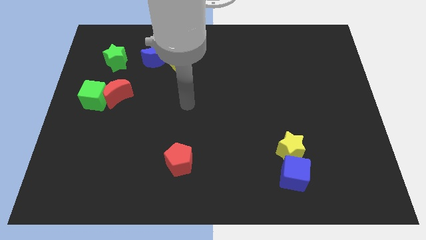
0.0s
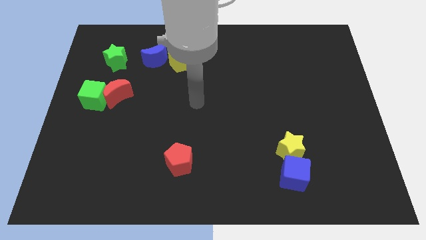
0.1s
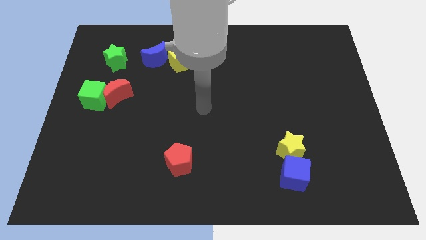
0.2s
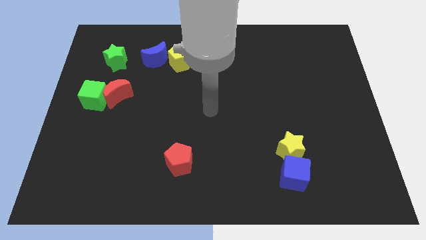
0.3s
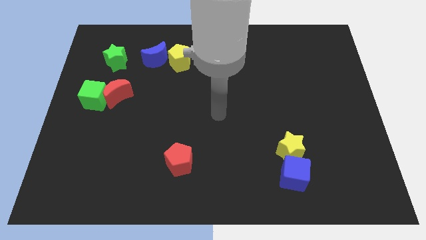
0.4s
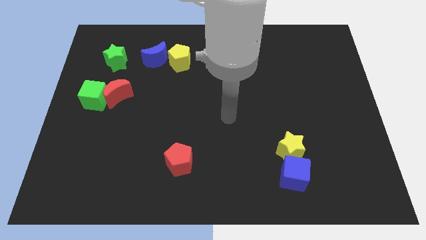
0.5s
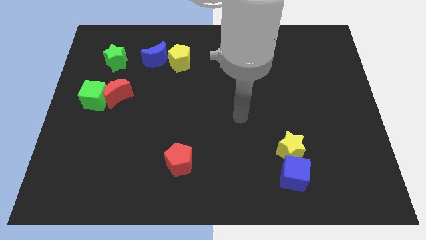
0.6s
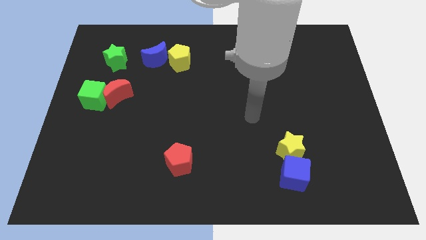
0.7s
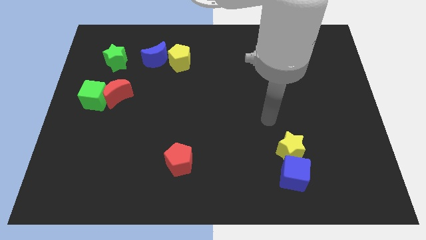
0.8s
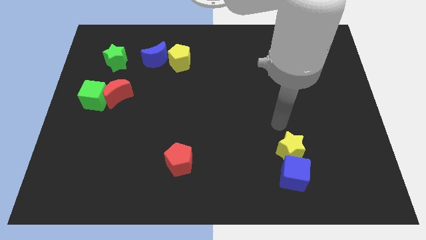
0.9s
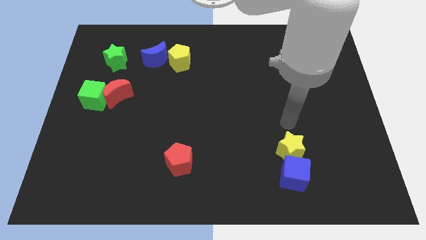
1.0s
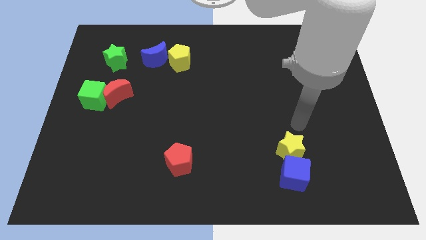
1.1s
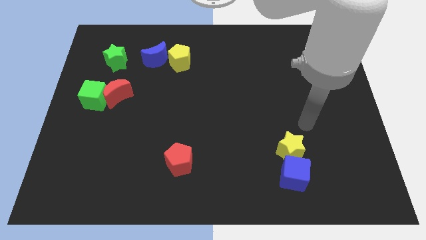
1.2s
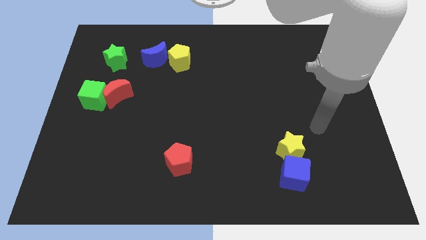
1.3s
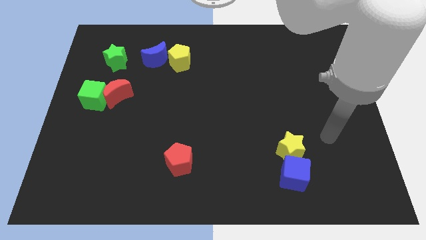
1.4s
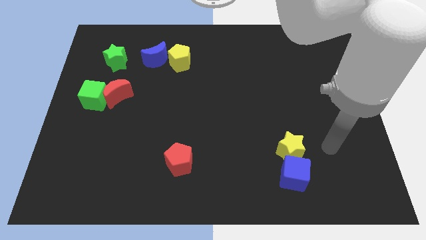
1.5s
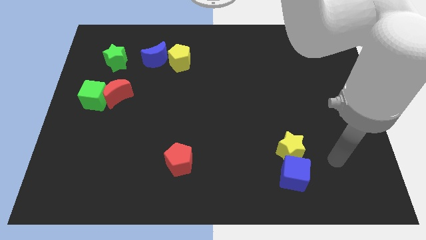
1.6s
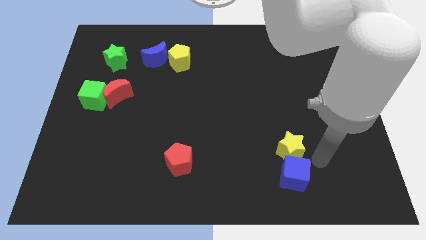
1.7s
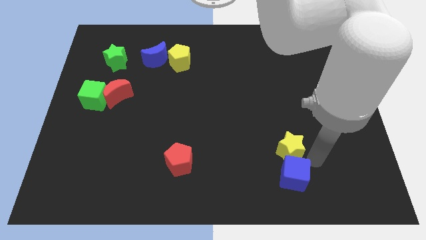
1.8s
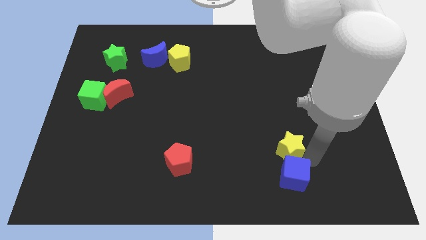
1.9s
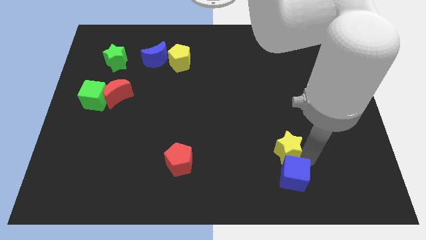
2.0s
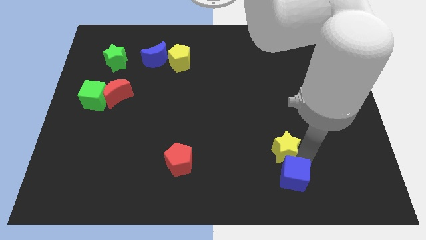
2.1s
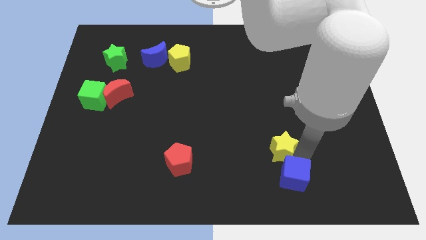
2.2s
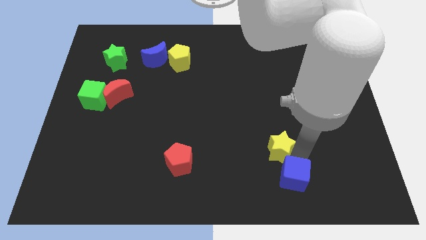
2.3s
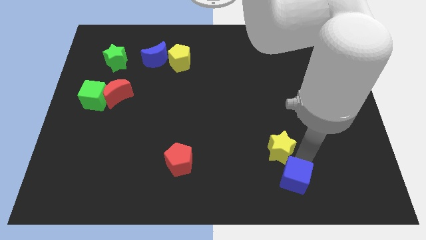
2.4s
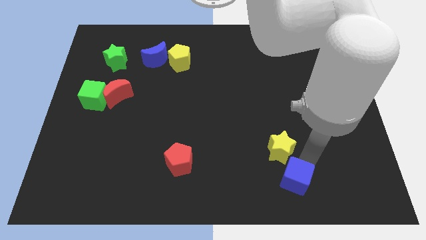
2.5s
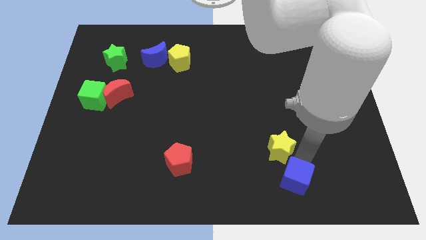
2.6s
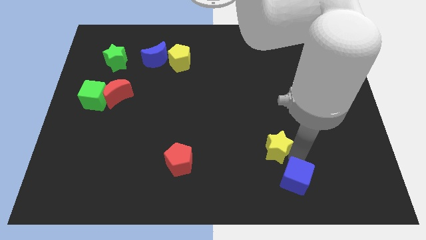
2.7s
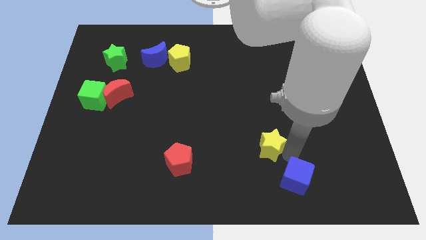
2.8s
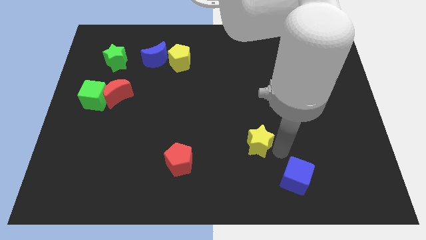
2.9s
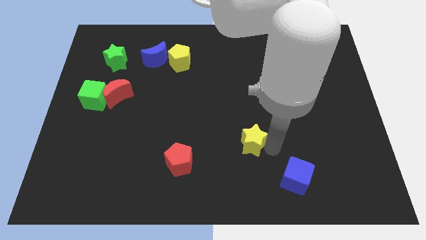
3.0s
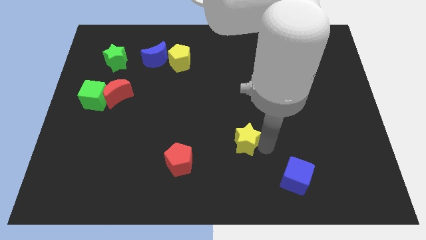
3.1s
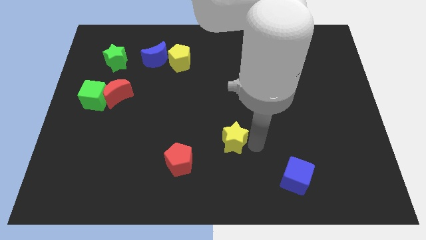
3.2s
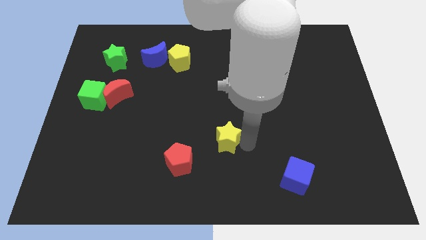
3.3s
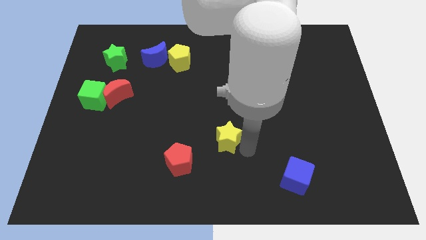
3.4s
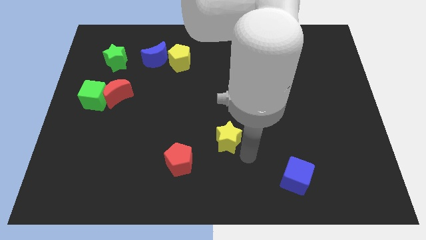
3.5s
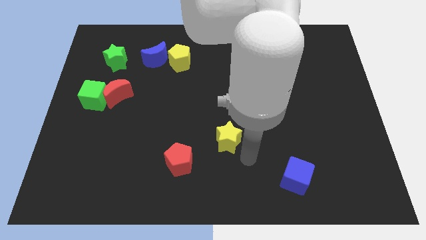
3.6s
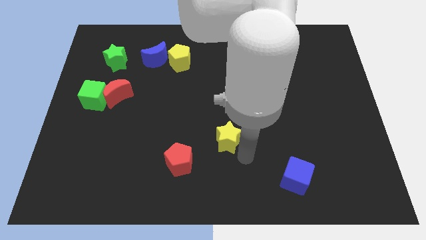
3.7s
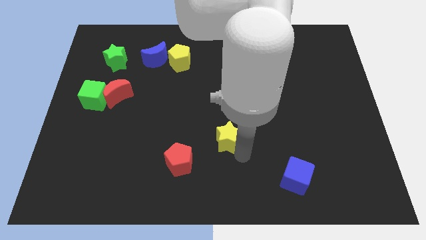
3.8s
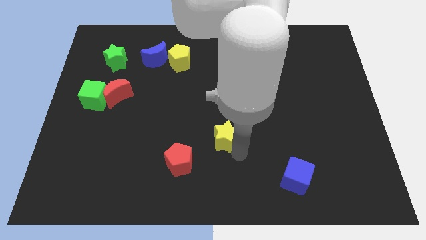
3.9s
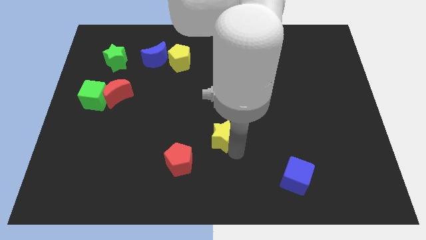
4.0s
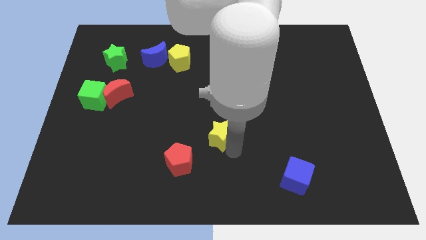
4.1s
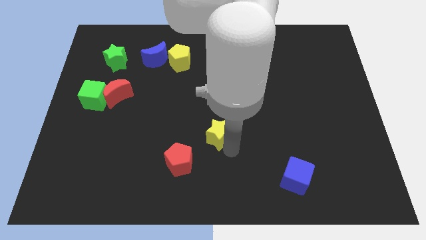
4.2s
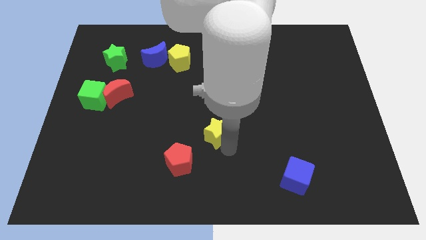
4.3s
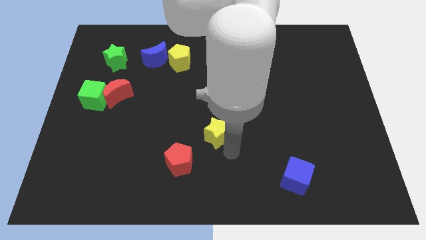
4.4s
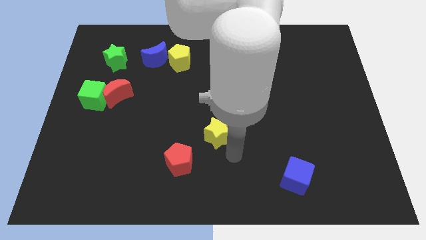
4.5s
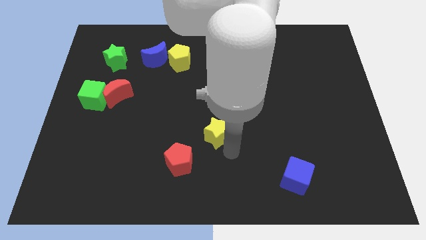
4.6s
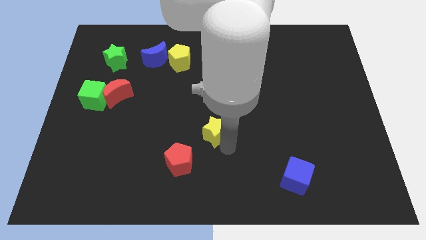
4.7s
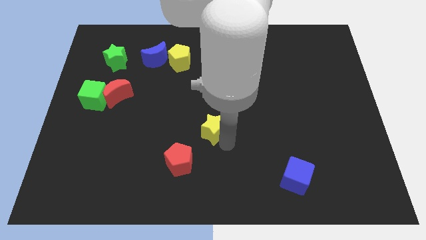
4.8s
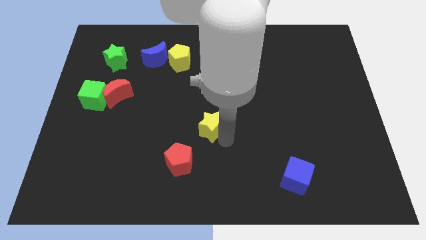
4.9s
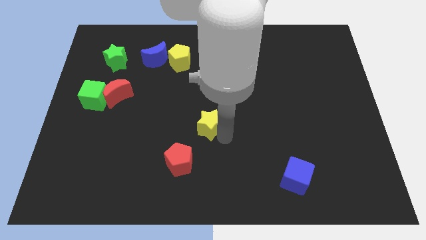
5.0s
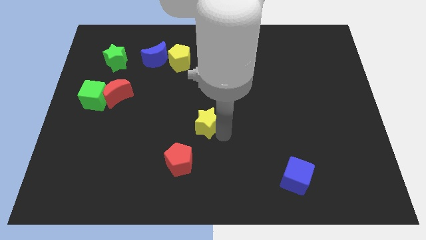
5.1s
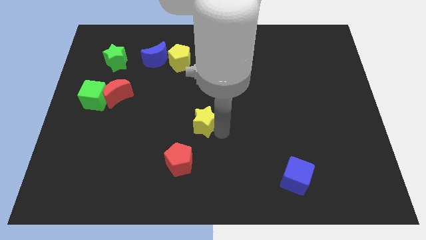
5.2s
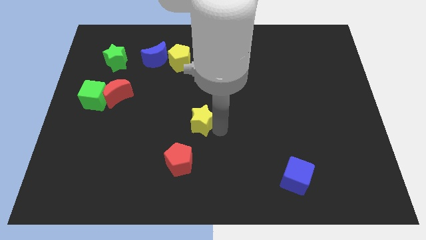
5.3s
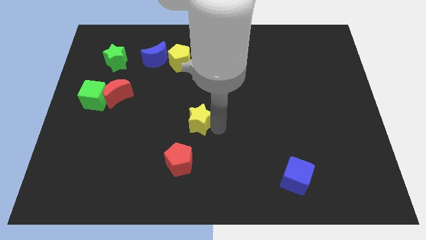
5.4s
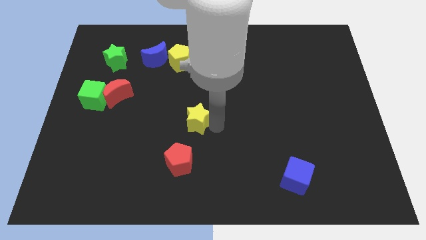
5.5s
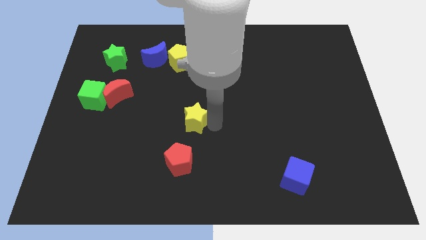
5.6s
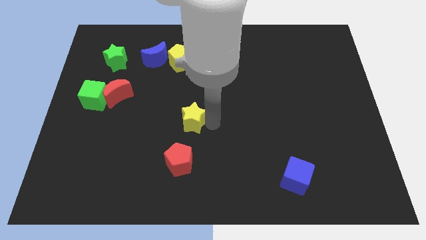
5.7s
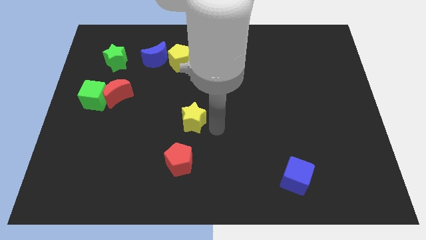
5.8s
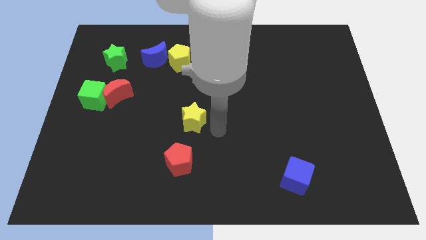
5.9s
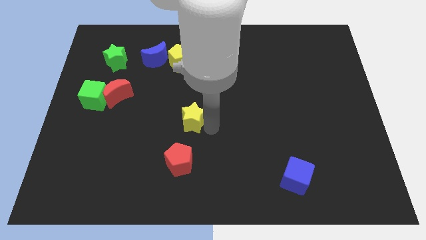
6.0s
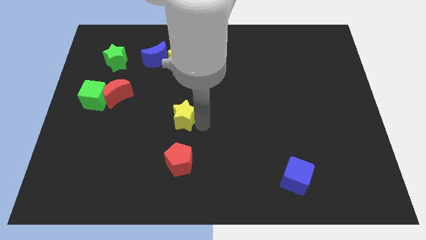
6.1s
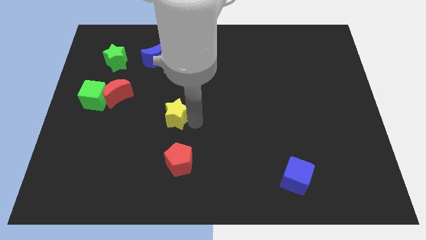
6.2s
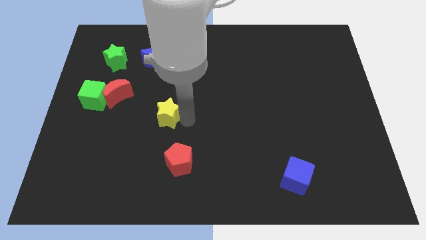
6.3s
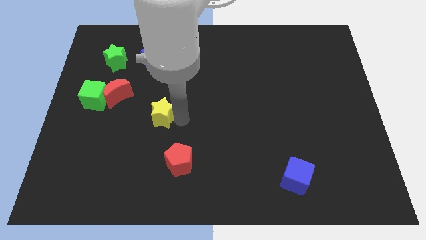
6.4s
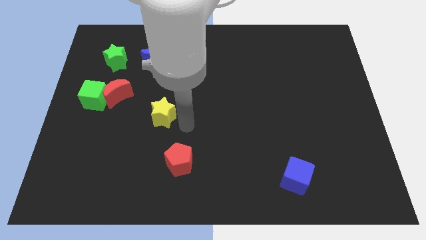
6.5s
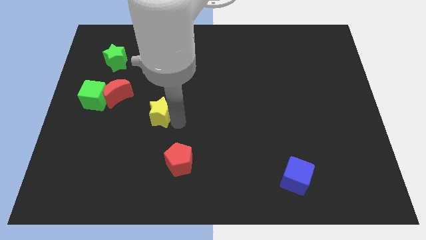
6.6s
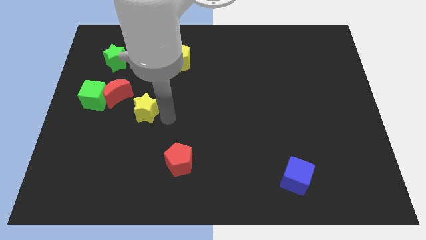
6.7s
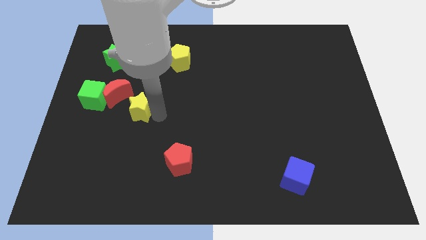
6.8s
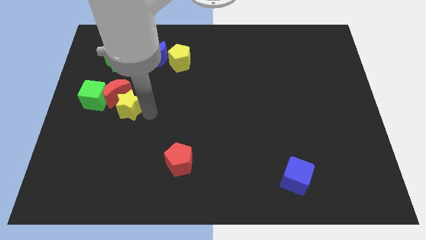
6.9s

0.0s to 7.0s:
slide the yellow star towards the red moon

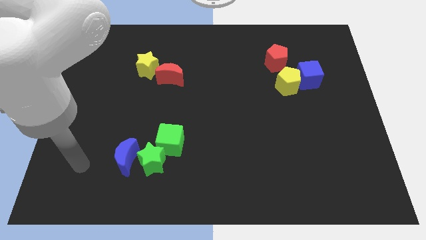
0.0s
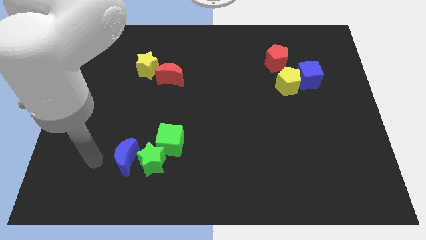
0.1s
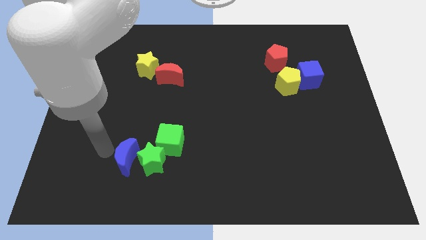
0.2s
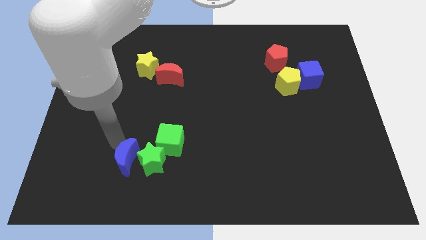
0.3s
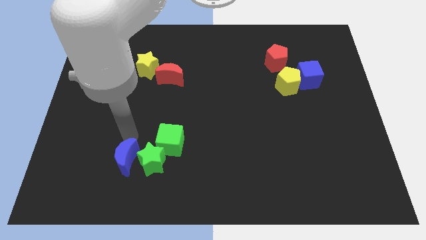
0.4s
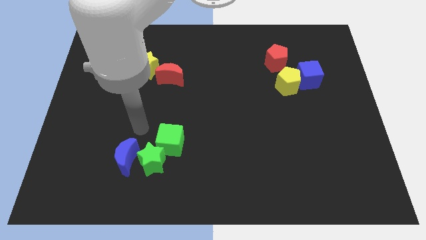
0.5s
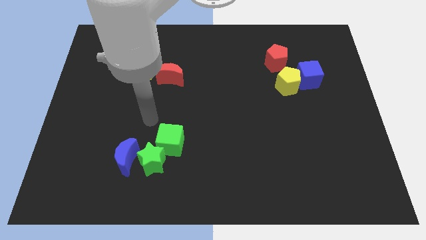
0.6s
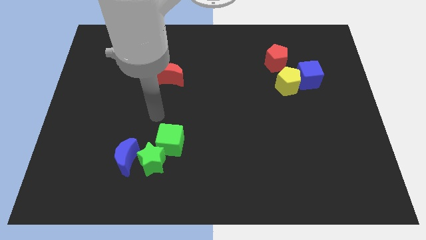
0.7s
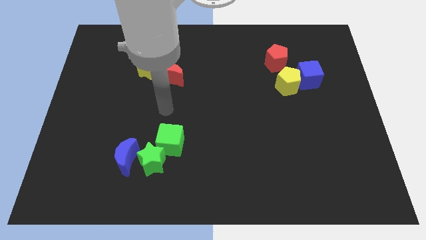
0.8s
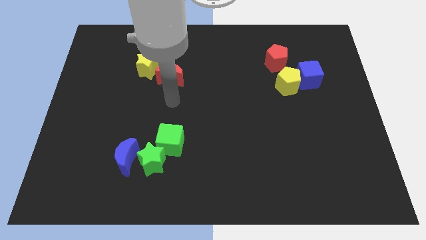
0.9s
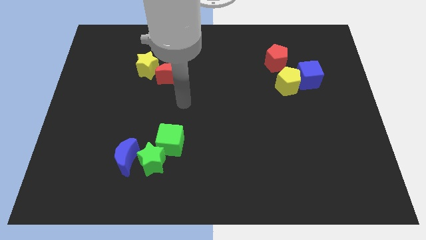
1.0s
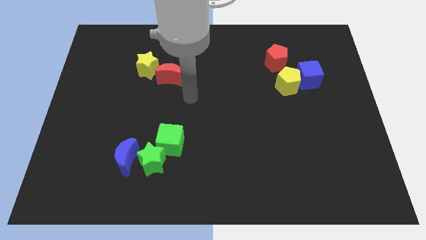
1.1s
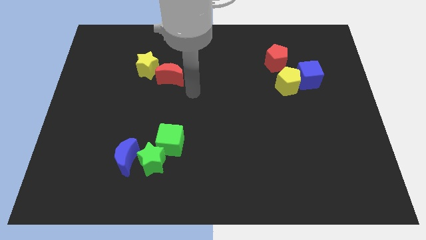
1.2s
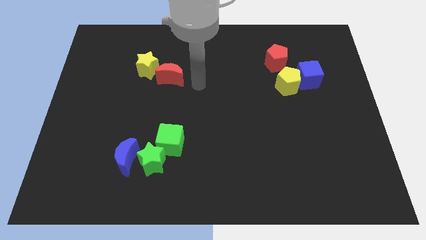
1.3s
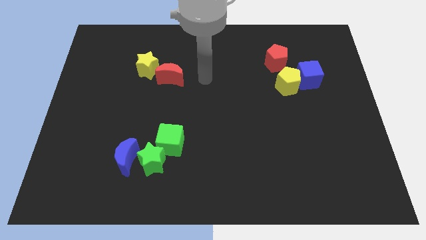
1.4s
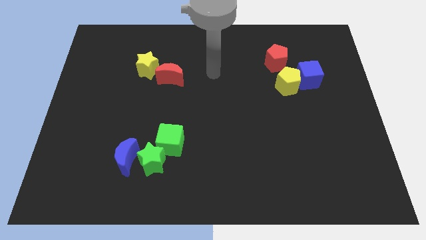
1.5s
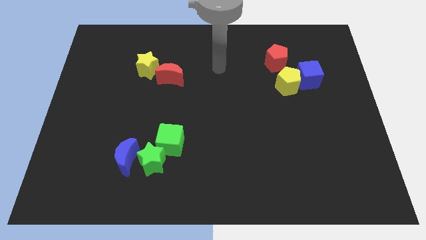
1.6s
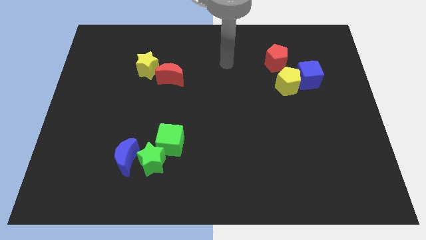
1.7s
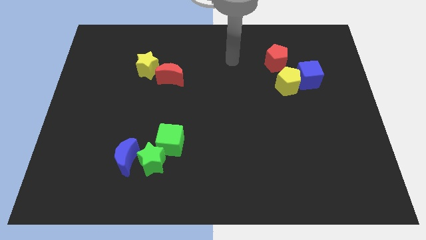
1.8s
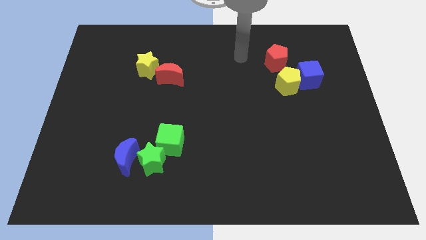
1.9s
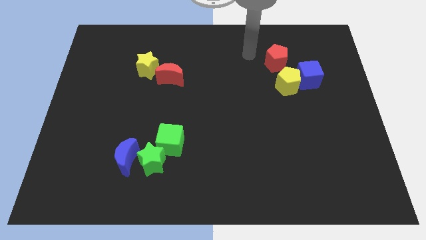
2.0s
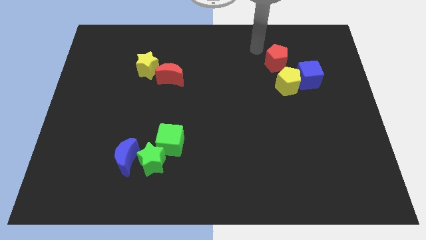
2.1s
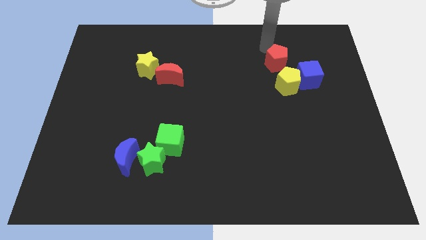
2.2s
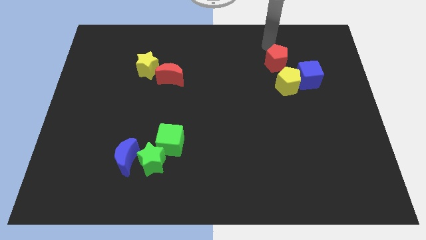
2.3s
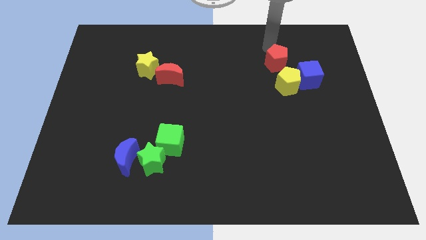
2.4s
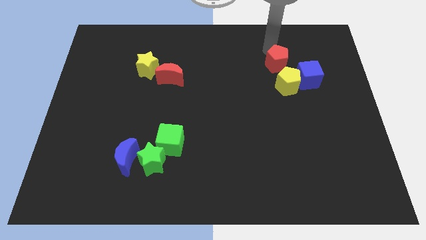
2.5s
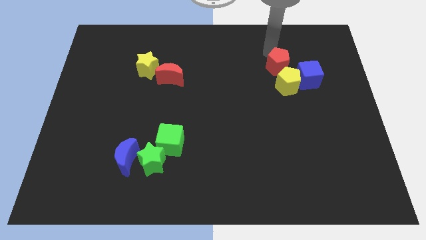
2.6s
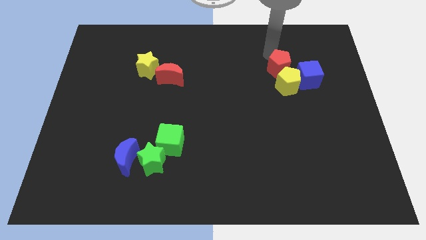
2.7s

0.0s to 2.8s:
move the red pentagon close to the yellow pentagon
